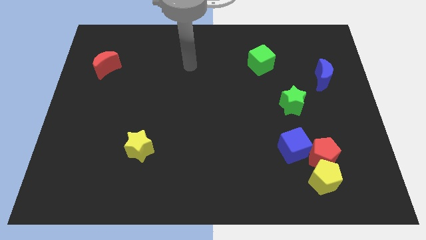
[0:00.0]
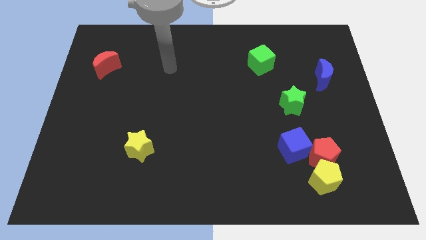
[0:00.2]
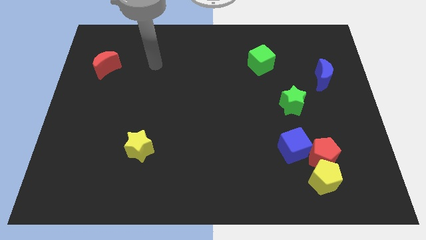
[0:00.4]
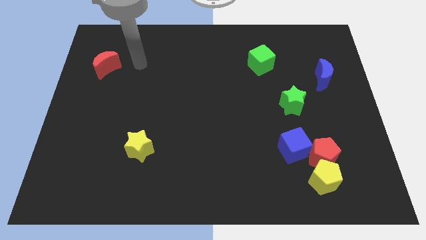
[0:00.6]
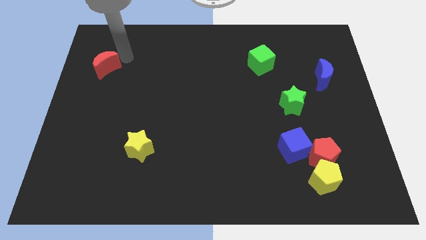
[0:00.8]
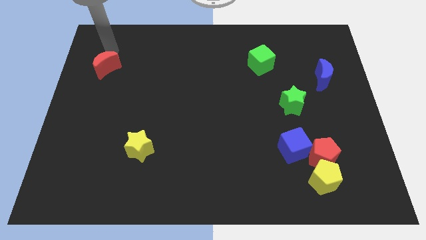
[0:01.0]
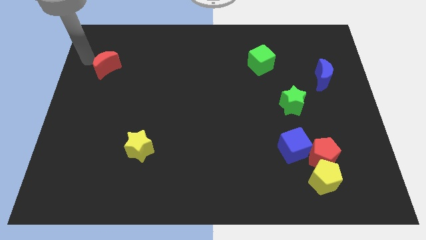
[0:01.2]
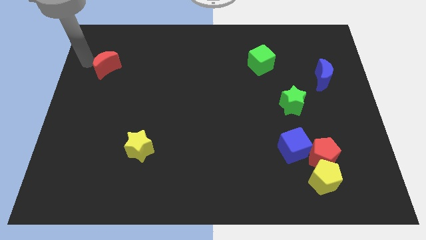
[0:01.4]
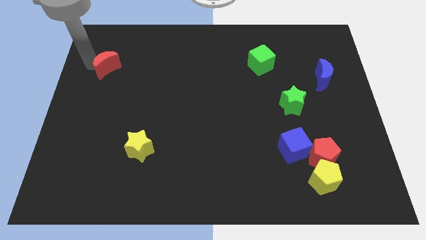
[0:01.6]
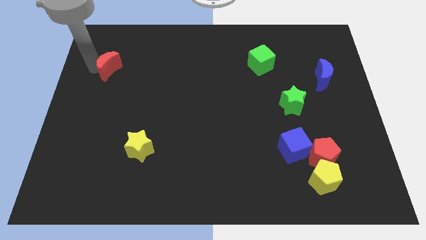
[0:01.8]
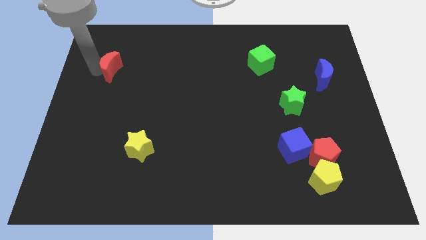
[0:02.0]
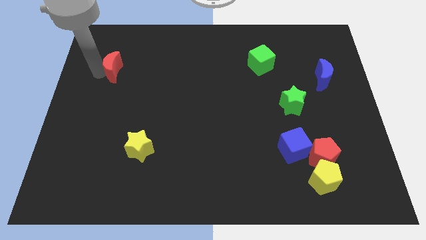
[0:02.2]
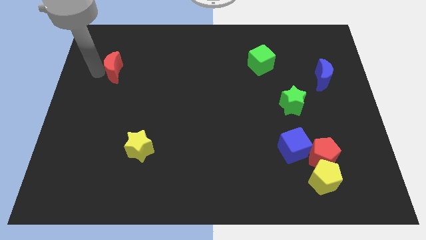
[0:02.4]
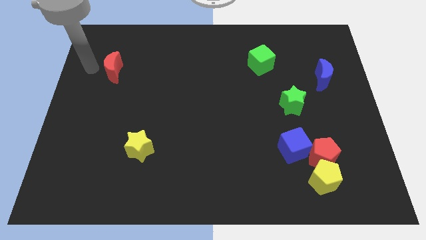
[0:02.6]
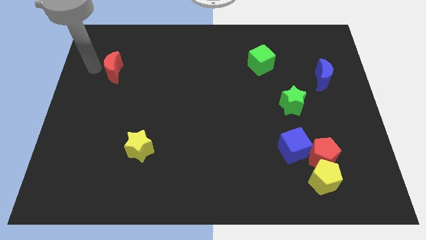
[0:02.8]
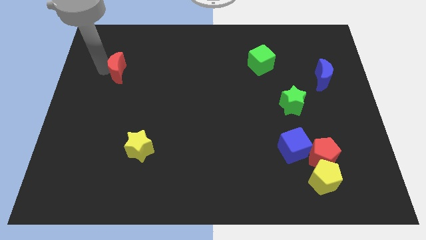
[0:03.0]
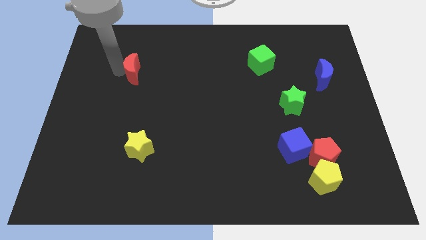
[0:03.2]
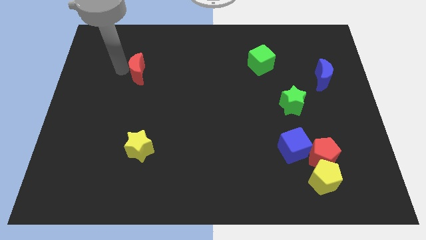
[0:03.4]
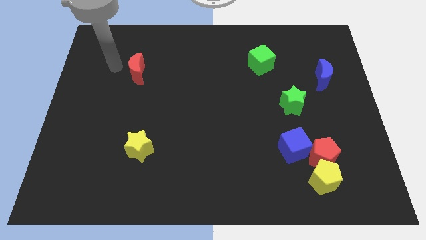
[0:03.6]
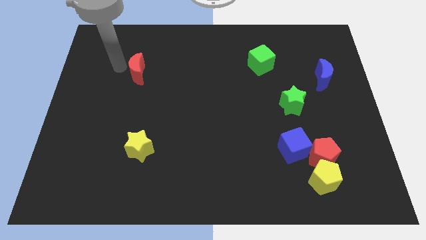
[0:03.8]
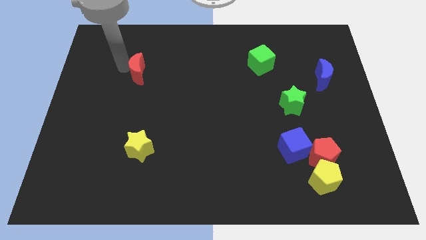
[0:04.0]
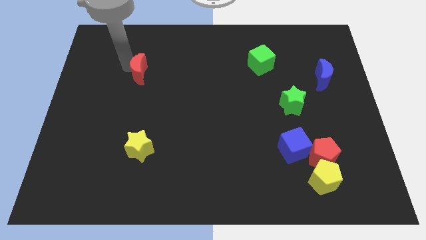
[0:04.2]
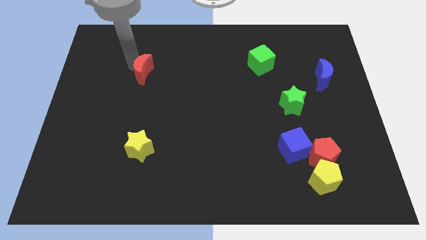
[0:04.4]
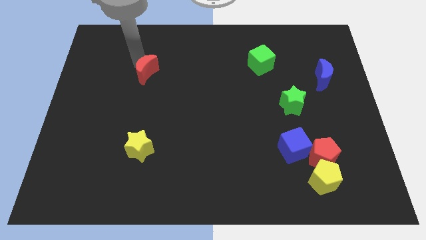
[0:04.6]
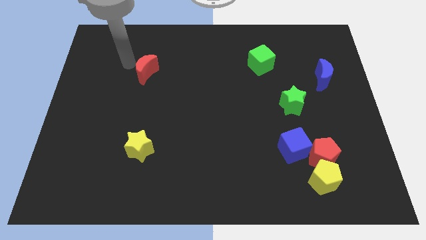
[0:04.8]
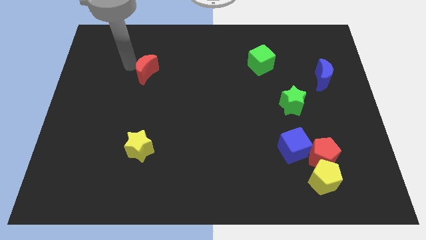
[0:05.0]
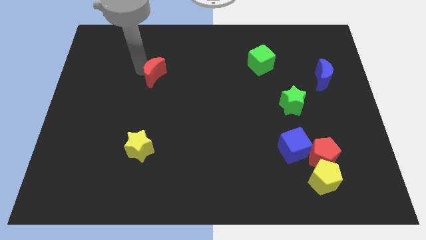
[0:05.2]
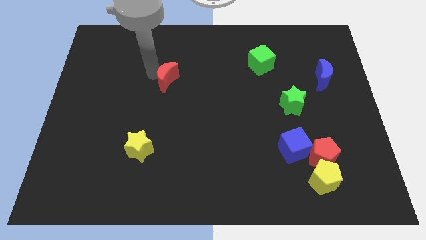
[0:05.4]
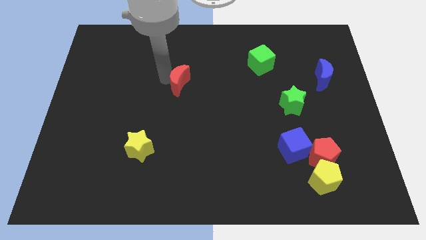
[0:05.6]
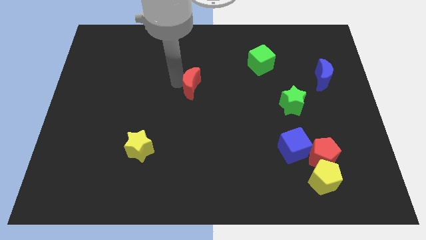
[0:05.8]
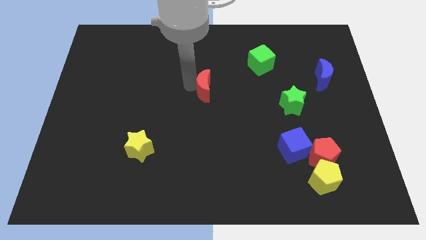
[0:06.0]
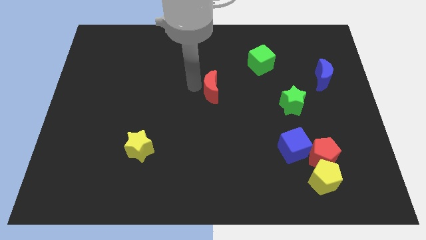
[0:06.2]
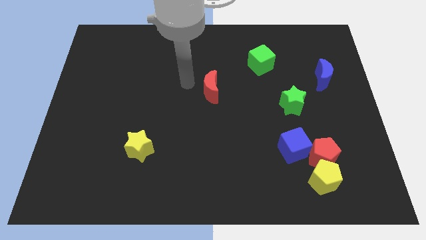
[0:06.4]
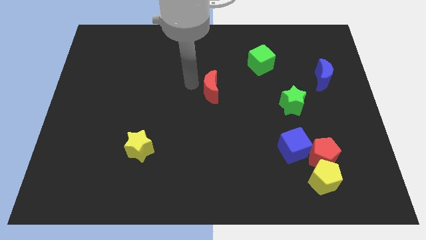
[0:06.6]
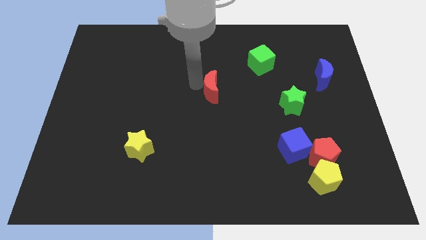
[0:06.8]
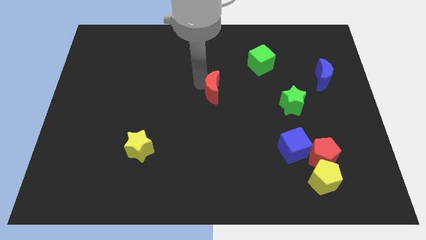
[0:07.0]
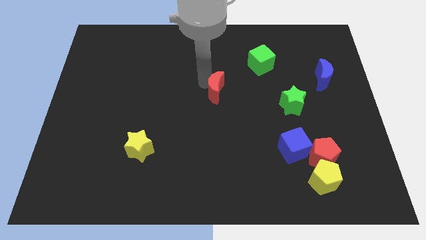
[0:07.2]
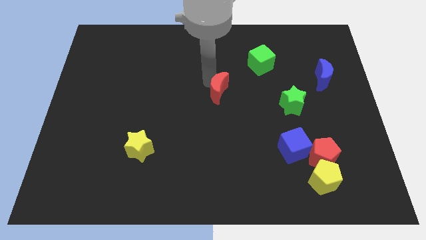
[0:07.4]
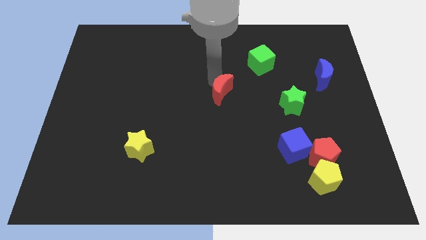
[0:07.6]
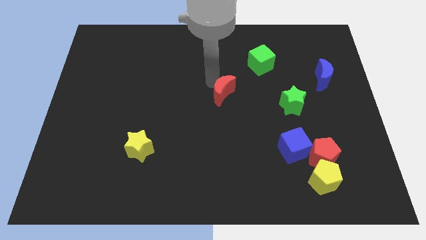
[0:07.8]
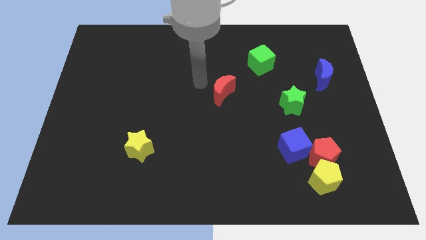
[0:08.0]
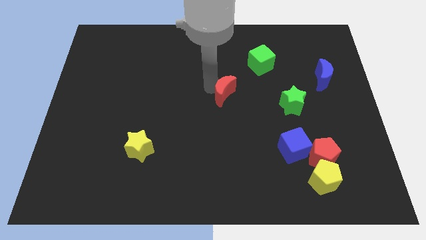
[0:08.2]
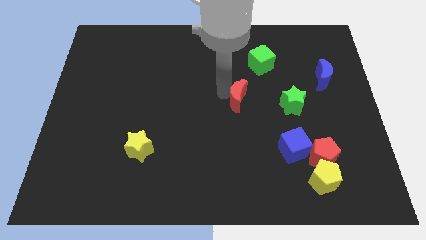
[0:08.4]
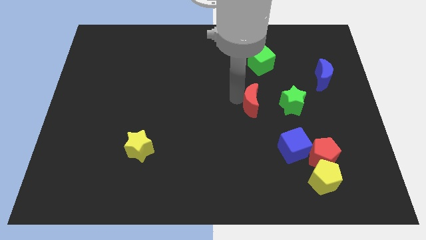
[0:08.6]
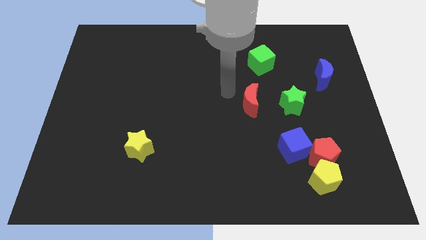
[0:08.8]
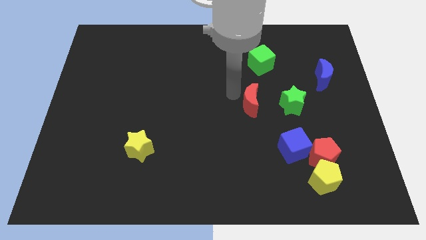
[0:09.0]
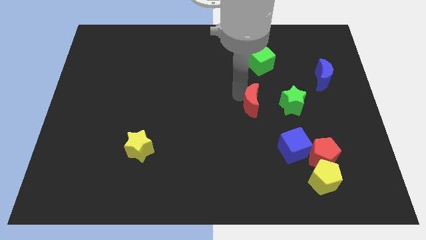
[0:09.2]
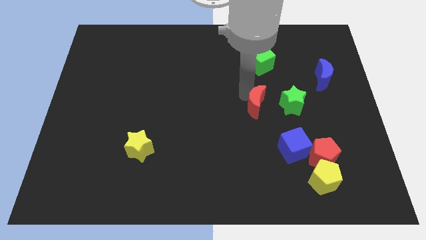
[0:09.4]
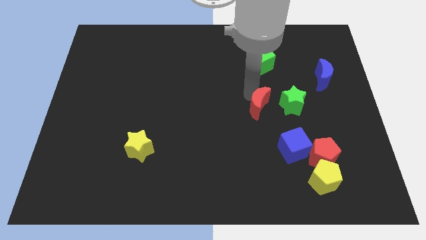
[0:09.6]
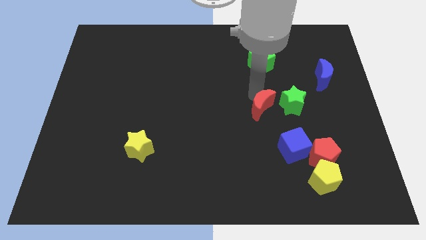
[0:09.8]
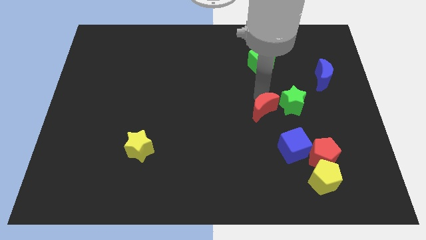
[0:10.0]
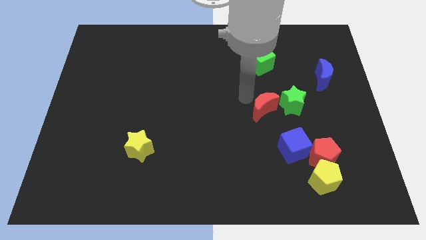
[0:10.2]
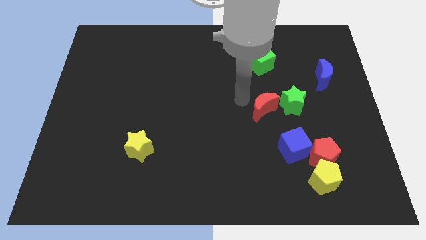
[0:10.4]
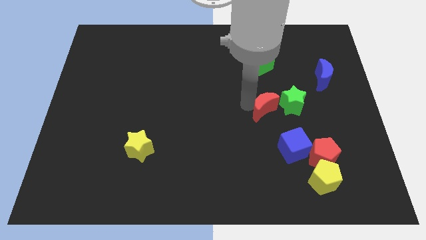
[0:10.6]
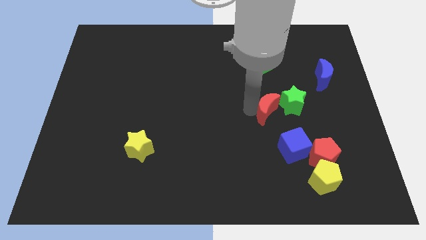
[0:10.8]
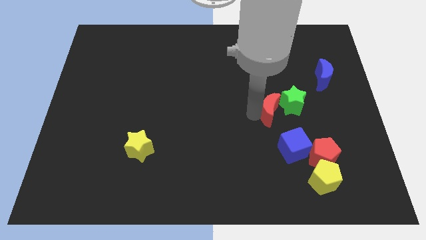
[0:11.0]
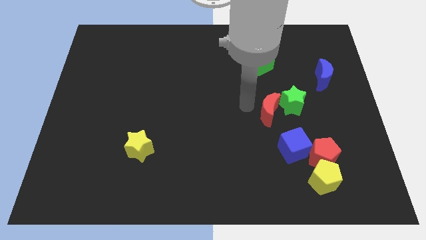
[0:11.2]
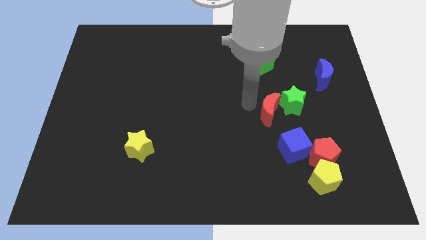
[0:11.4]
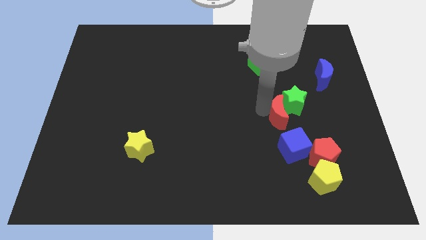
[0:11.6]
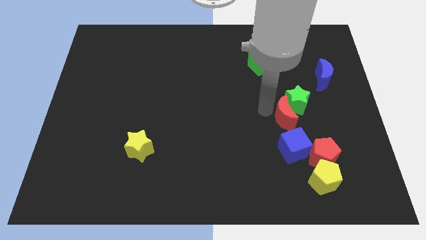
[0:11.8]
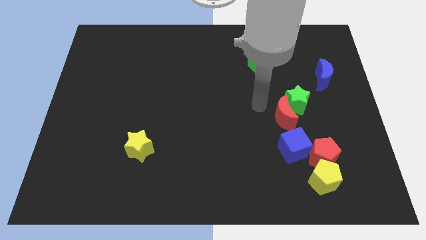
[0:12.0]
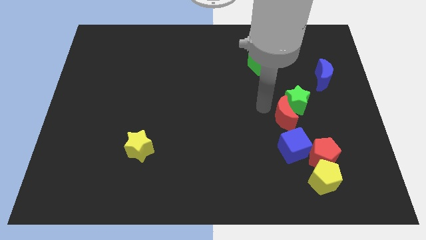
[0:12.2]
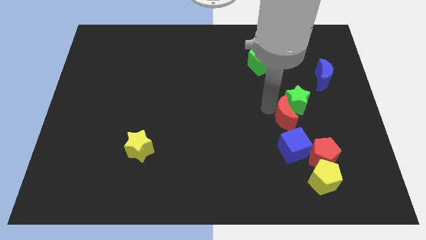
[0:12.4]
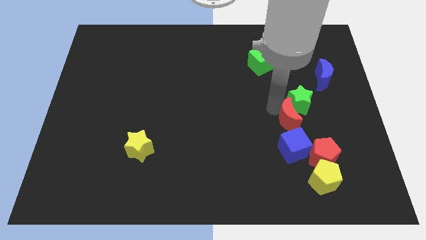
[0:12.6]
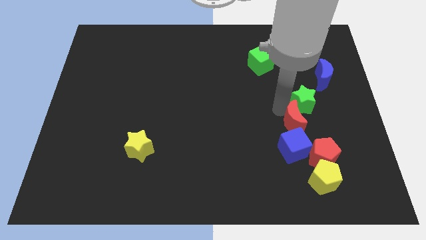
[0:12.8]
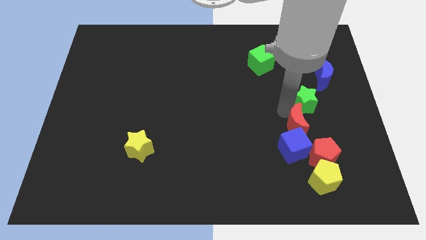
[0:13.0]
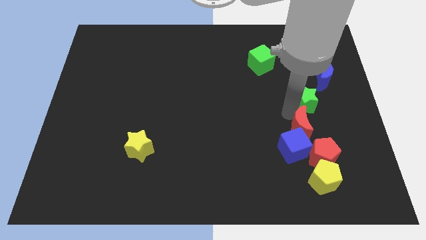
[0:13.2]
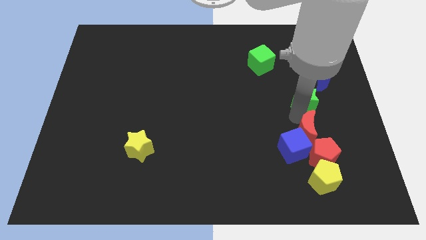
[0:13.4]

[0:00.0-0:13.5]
move the red moon to the right of the blue cube

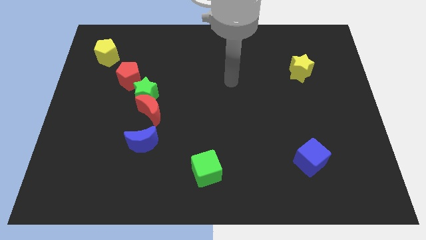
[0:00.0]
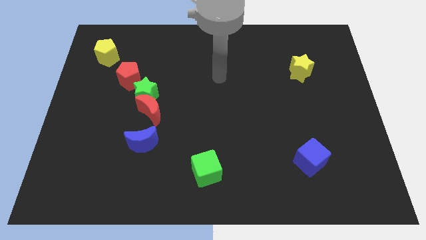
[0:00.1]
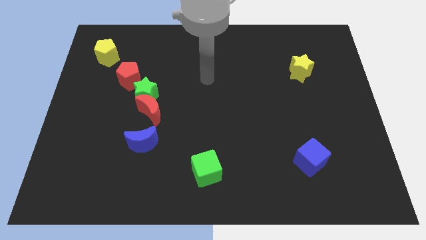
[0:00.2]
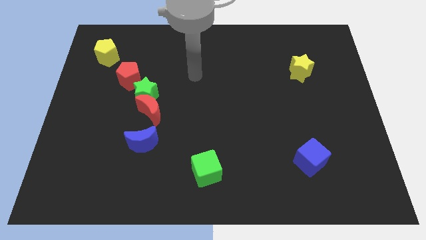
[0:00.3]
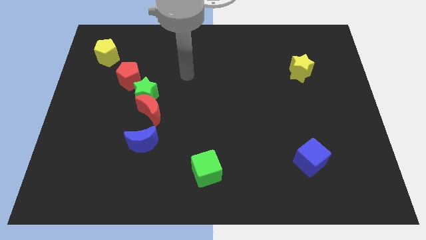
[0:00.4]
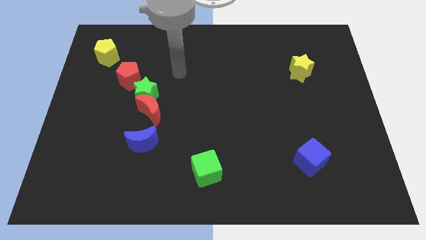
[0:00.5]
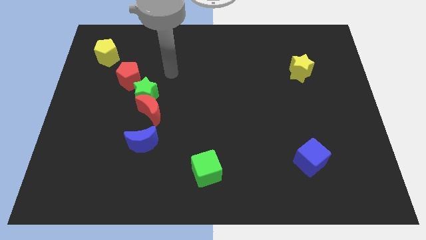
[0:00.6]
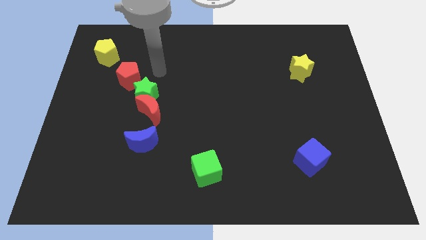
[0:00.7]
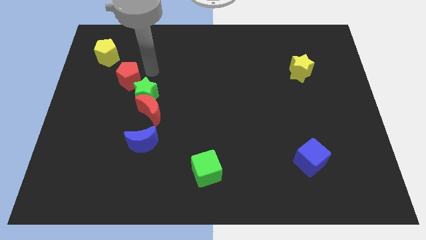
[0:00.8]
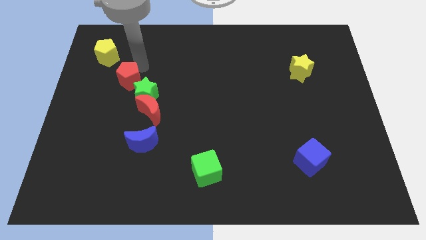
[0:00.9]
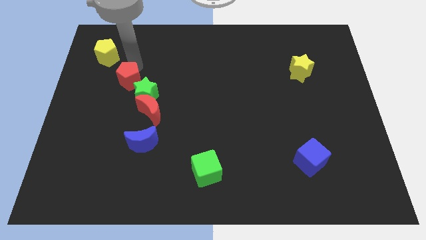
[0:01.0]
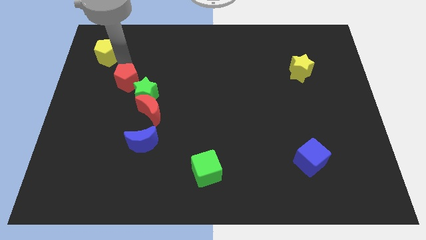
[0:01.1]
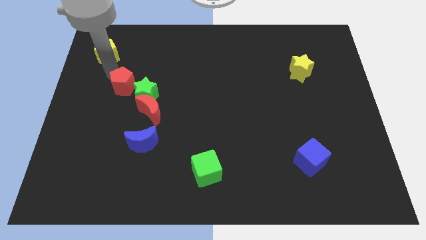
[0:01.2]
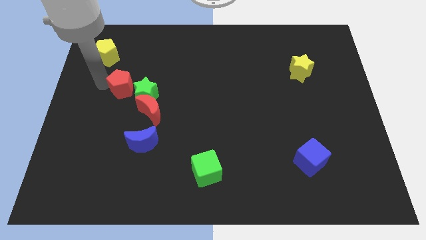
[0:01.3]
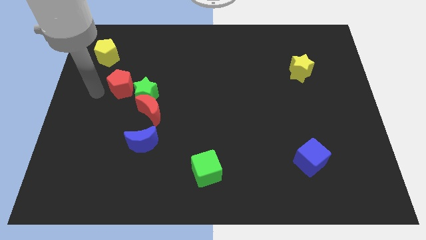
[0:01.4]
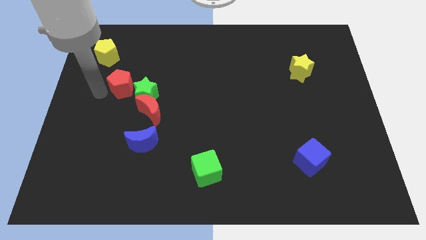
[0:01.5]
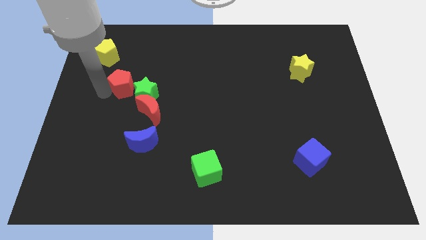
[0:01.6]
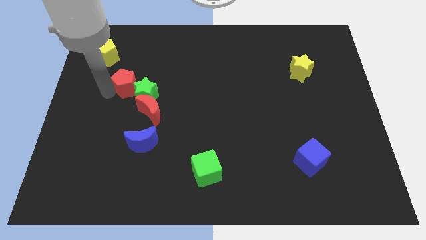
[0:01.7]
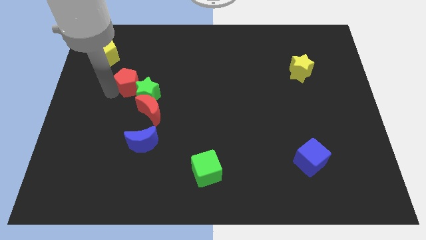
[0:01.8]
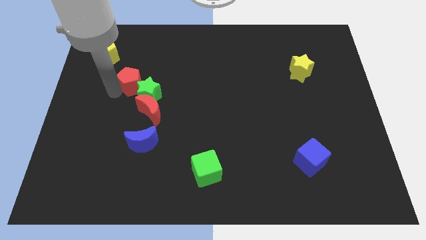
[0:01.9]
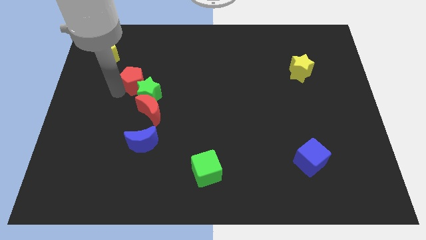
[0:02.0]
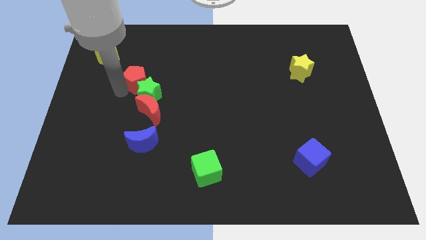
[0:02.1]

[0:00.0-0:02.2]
slide the red pentagon to the top side of the red moon
